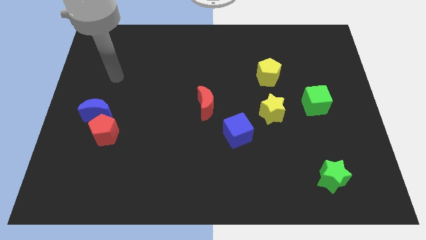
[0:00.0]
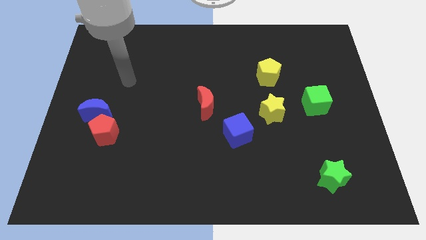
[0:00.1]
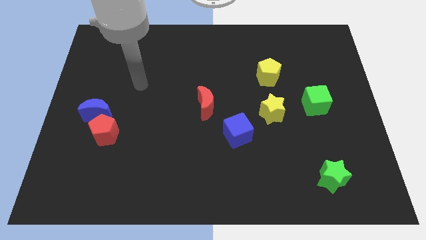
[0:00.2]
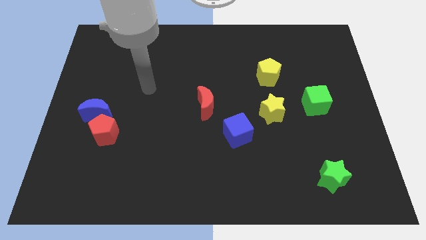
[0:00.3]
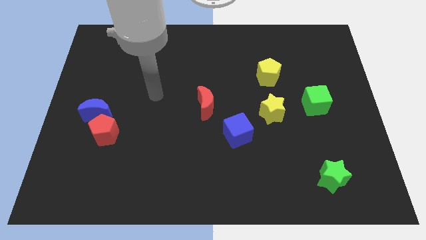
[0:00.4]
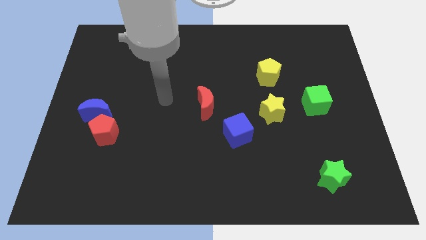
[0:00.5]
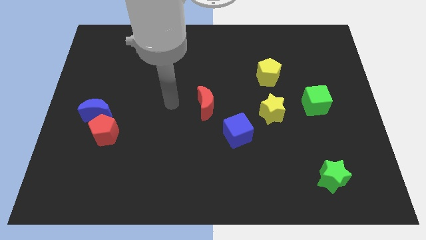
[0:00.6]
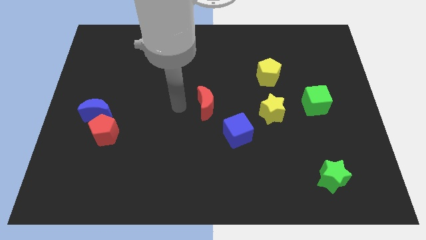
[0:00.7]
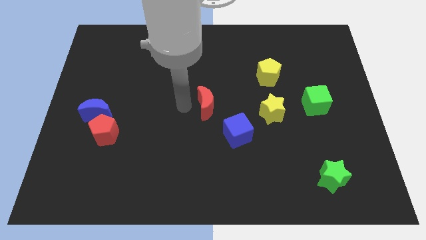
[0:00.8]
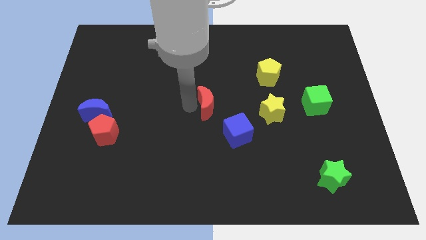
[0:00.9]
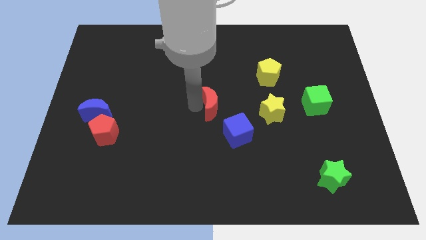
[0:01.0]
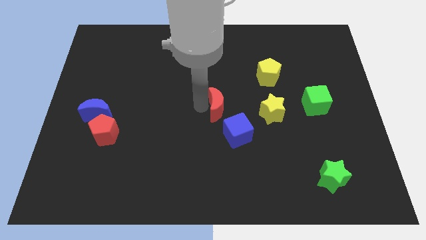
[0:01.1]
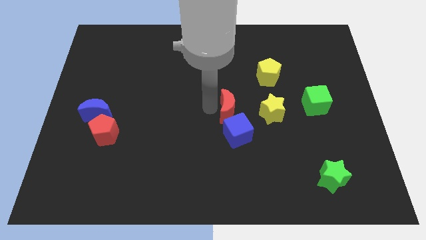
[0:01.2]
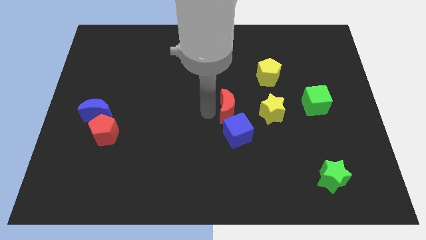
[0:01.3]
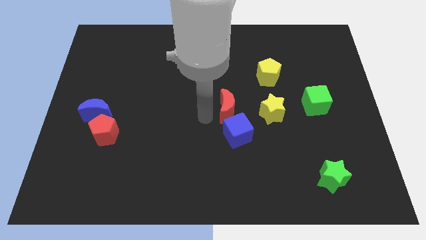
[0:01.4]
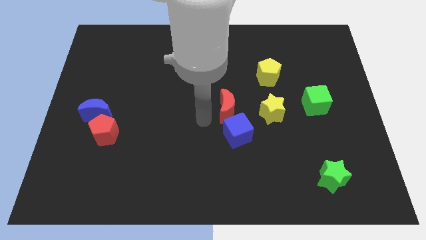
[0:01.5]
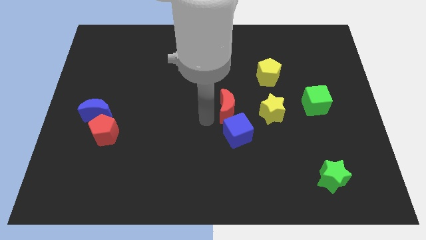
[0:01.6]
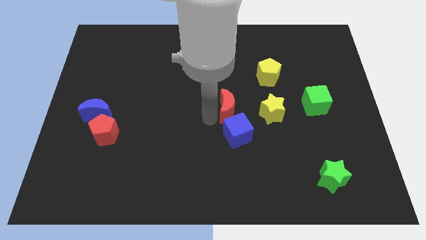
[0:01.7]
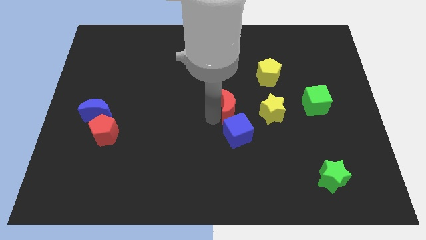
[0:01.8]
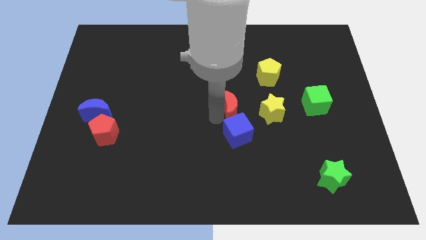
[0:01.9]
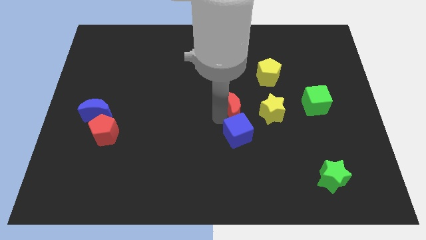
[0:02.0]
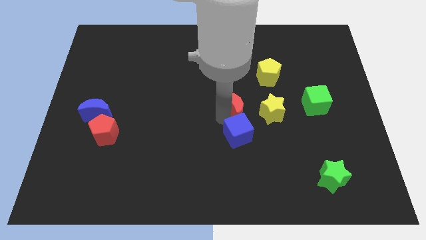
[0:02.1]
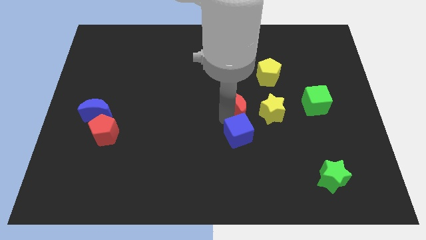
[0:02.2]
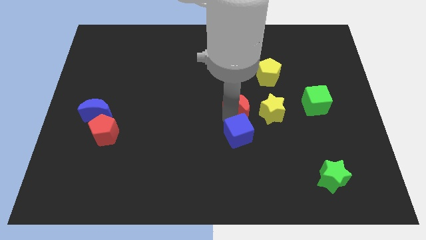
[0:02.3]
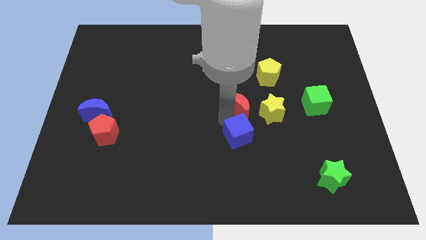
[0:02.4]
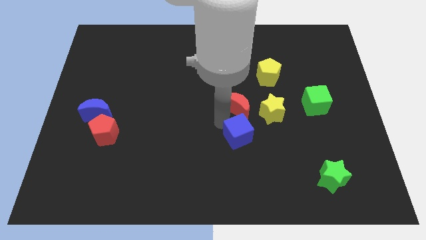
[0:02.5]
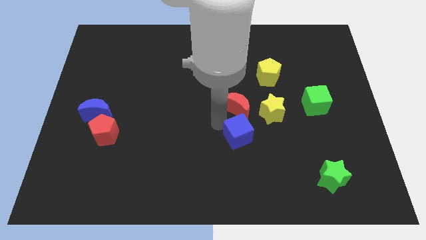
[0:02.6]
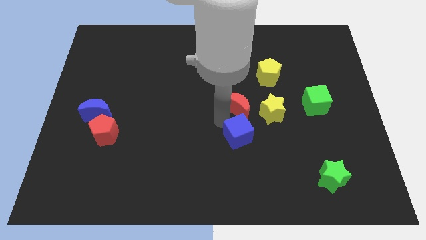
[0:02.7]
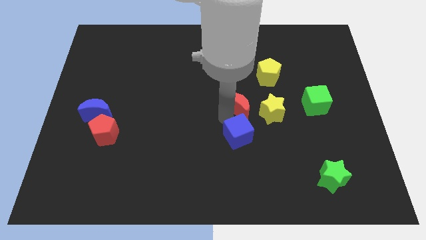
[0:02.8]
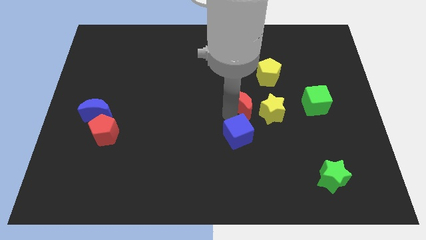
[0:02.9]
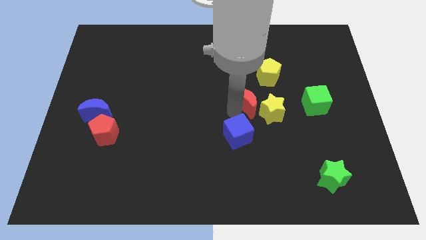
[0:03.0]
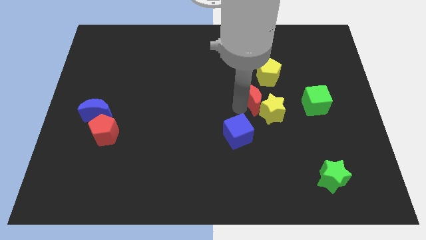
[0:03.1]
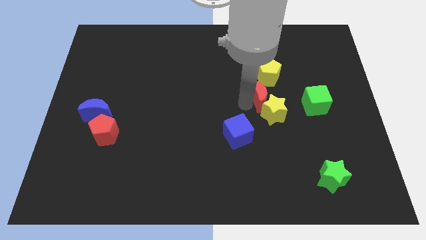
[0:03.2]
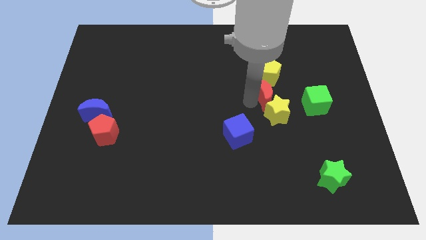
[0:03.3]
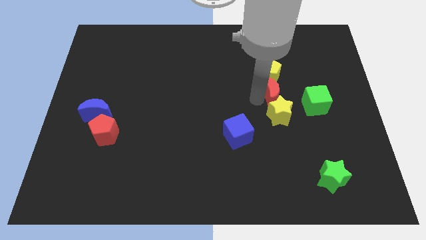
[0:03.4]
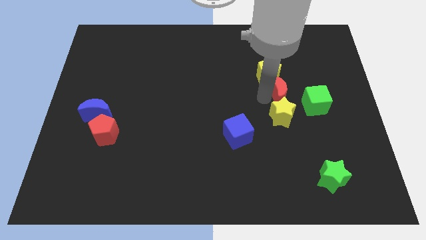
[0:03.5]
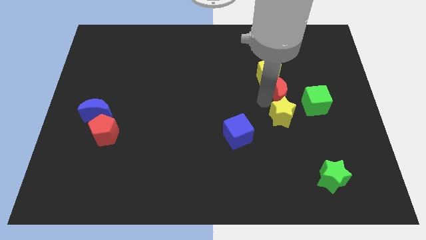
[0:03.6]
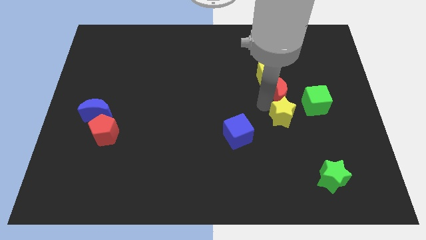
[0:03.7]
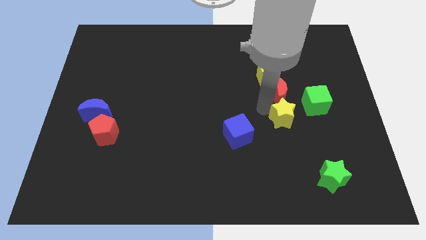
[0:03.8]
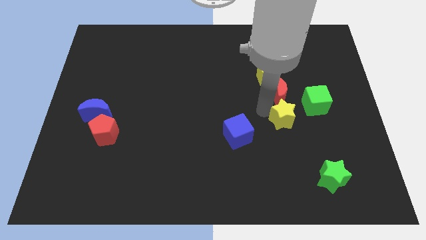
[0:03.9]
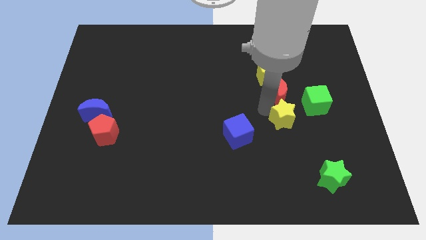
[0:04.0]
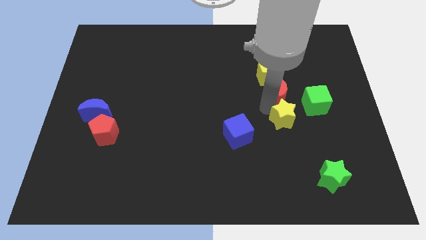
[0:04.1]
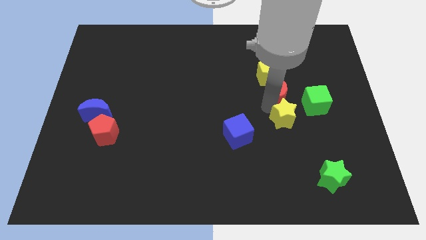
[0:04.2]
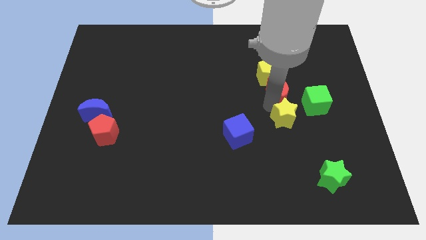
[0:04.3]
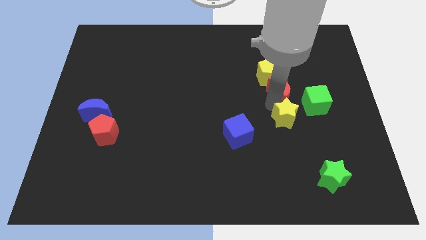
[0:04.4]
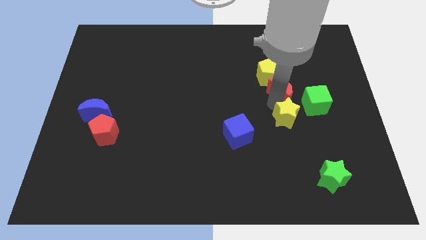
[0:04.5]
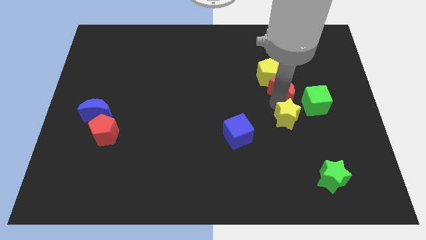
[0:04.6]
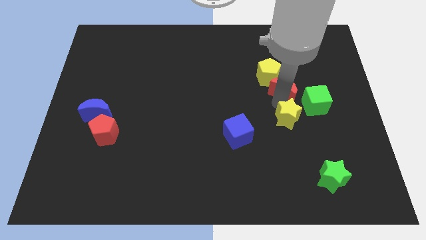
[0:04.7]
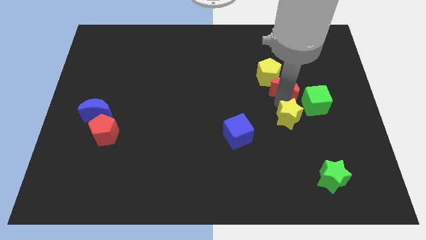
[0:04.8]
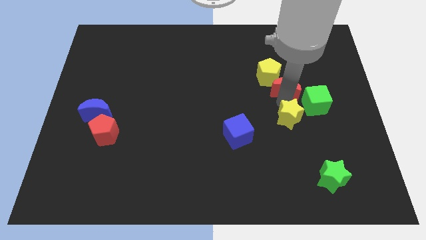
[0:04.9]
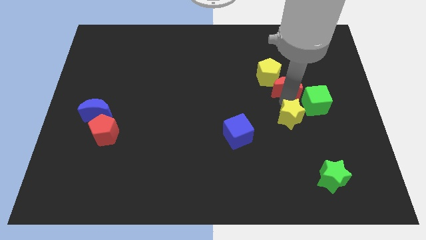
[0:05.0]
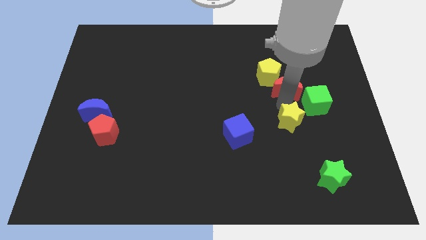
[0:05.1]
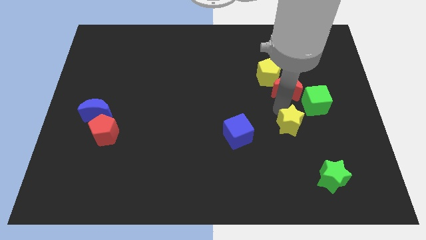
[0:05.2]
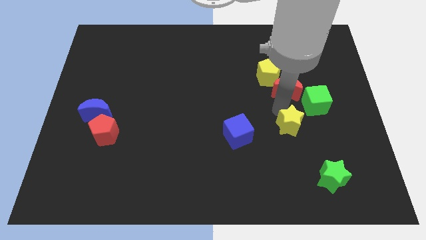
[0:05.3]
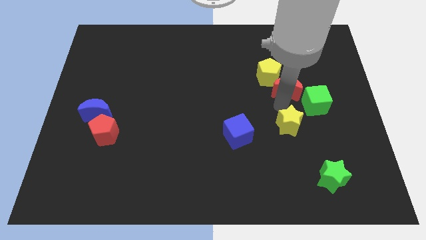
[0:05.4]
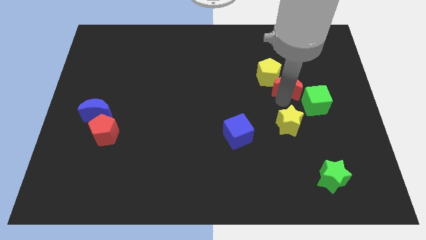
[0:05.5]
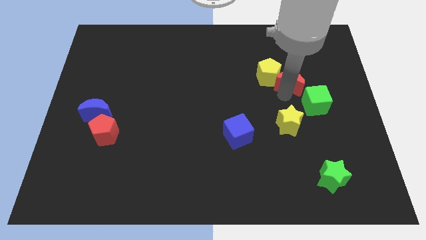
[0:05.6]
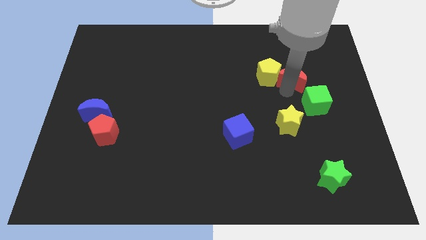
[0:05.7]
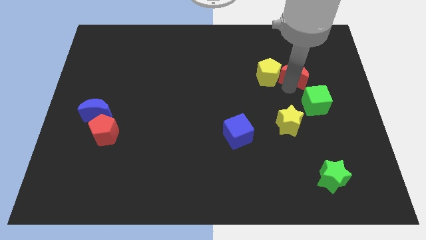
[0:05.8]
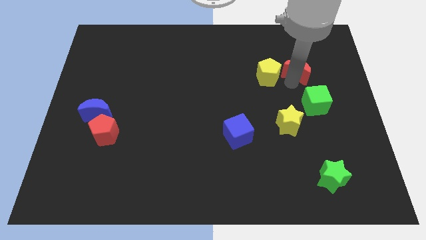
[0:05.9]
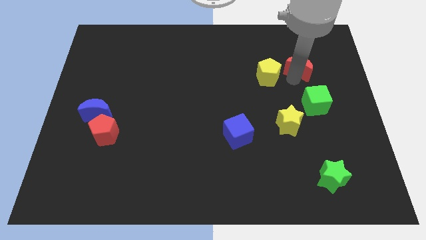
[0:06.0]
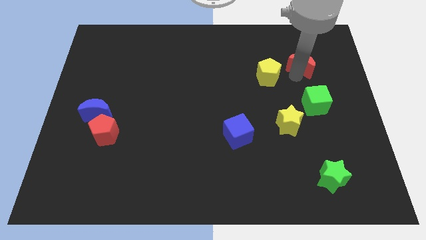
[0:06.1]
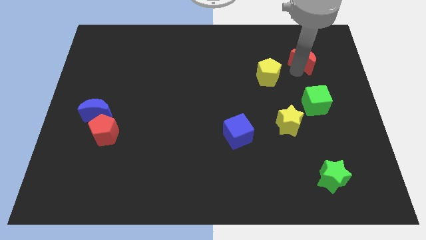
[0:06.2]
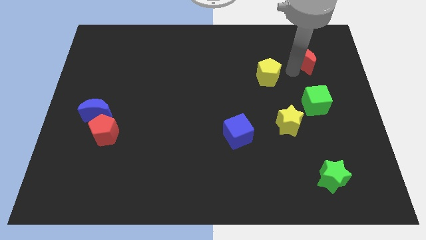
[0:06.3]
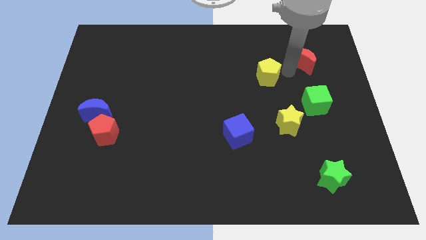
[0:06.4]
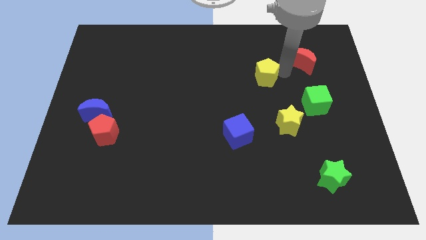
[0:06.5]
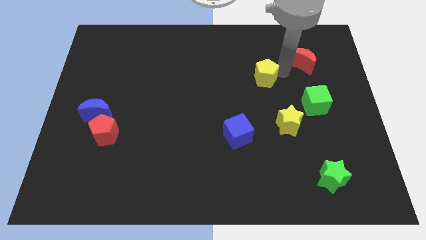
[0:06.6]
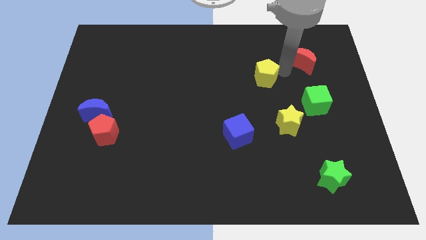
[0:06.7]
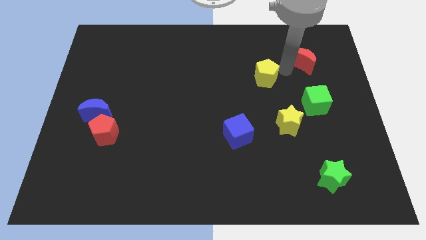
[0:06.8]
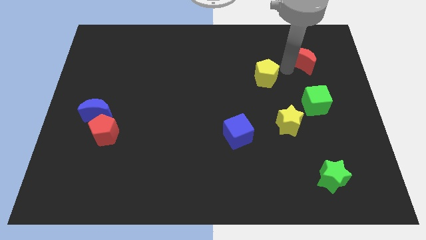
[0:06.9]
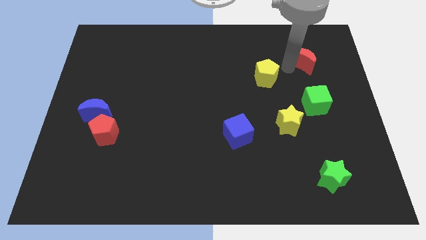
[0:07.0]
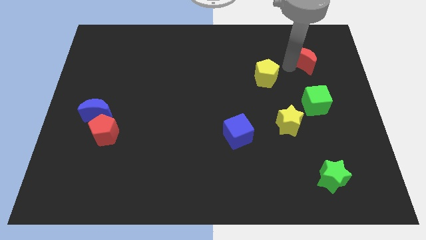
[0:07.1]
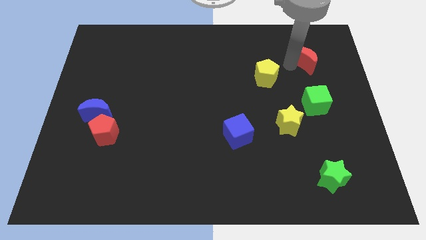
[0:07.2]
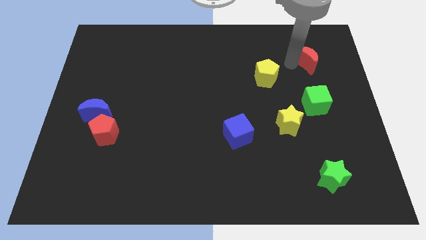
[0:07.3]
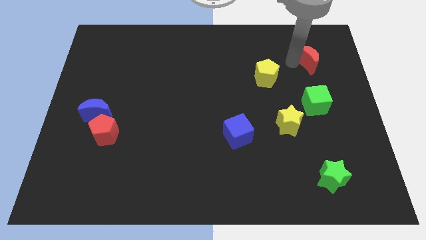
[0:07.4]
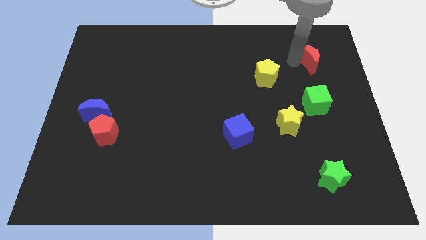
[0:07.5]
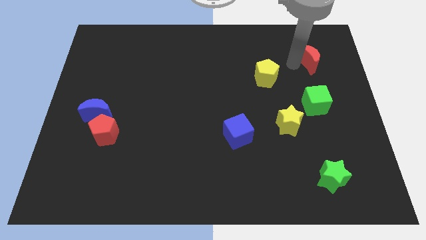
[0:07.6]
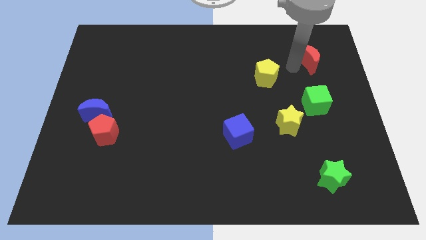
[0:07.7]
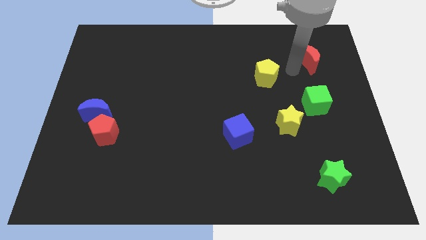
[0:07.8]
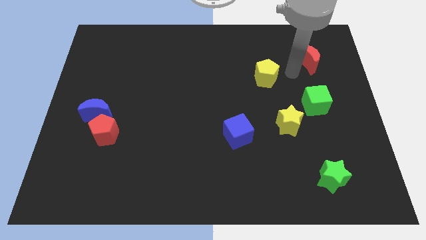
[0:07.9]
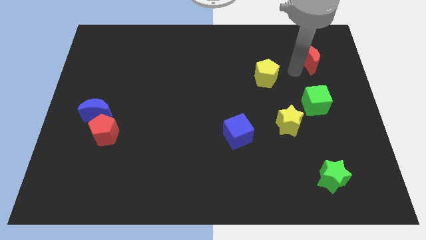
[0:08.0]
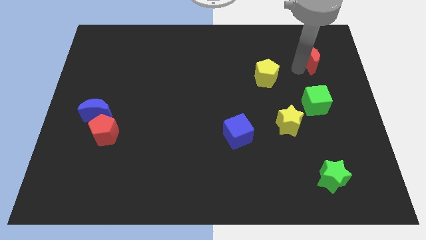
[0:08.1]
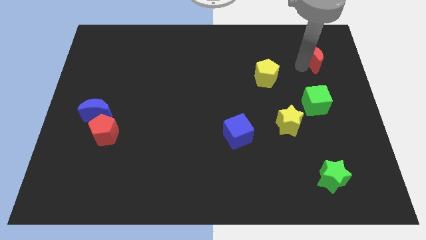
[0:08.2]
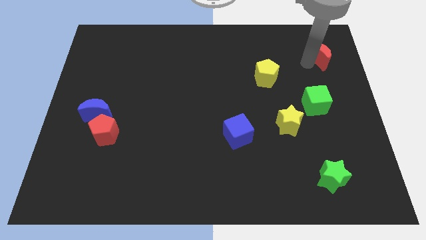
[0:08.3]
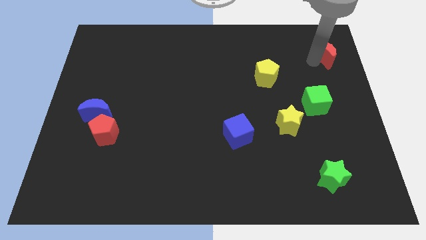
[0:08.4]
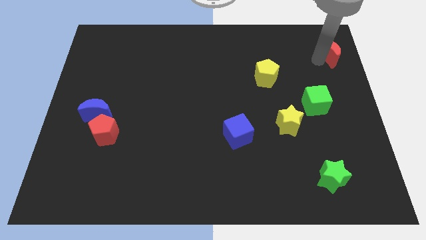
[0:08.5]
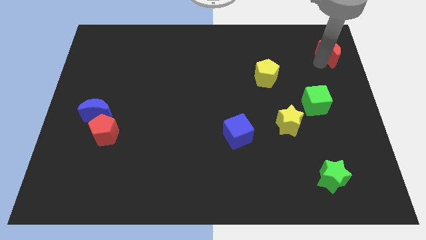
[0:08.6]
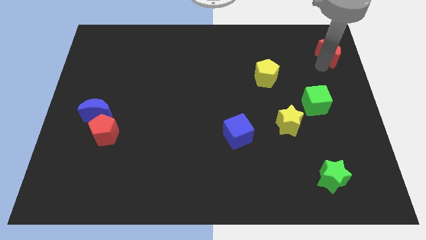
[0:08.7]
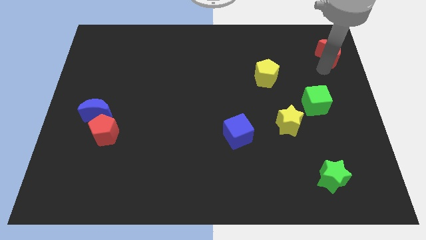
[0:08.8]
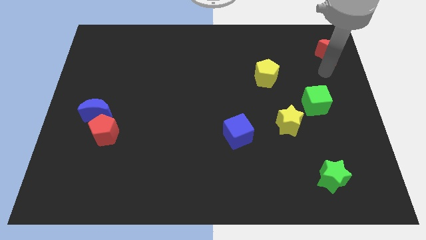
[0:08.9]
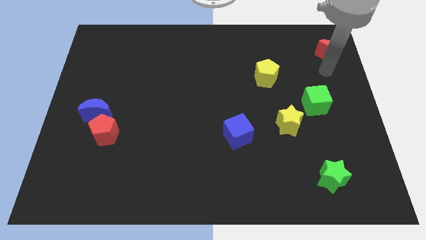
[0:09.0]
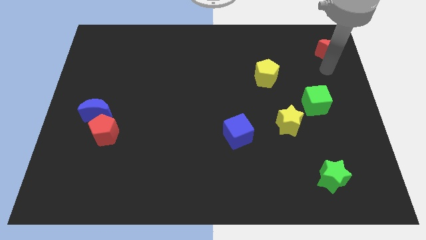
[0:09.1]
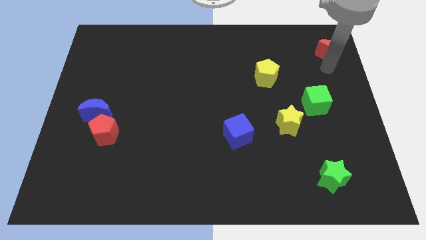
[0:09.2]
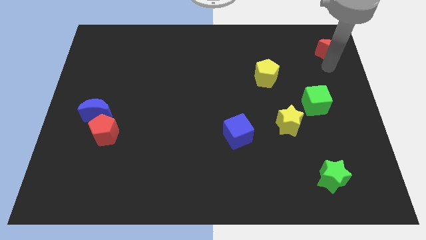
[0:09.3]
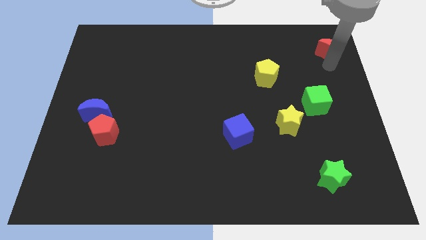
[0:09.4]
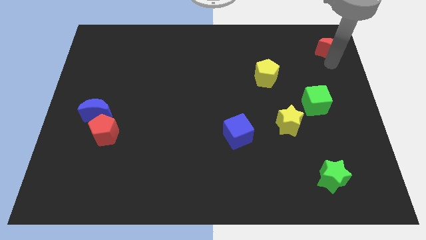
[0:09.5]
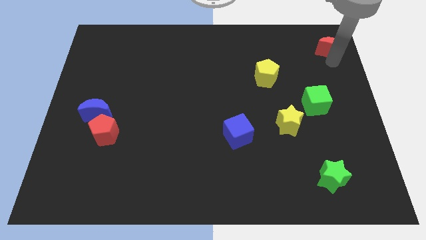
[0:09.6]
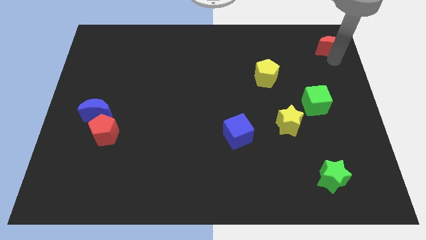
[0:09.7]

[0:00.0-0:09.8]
slide the red moon to the top right
